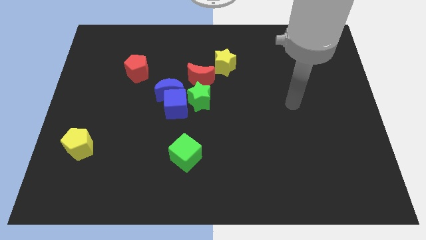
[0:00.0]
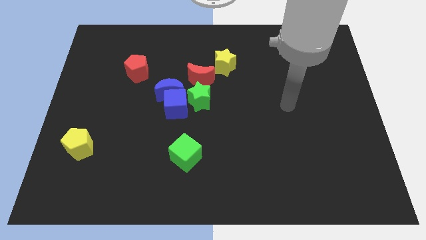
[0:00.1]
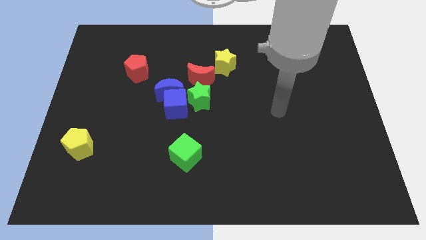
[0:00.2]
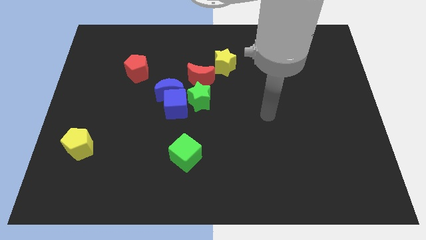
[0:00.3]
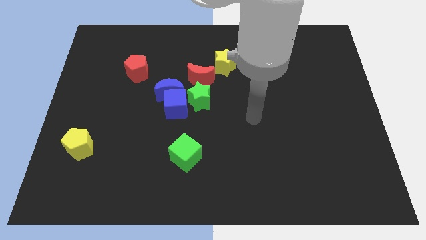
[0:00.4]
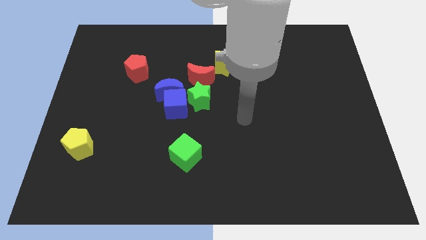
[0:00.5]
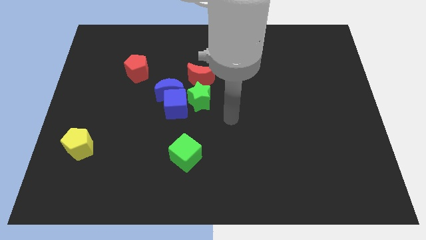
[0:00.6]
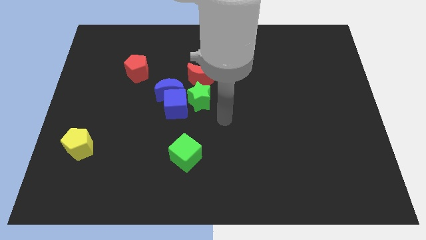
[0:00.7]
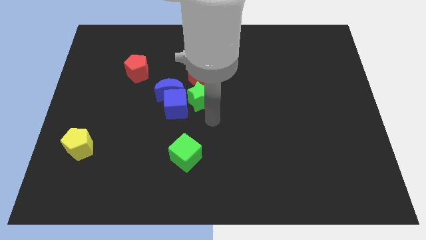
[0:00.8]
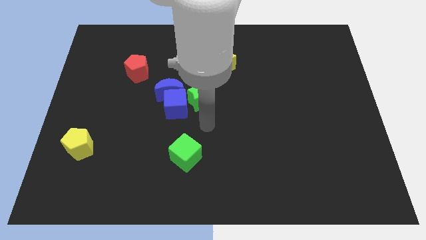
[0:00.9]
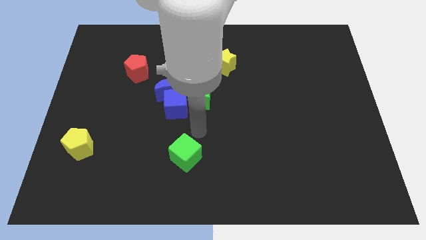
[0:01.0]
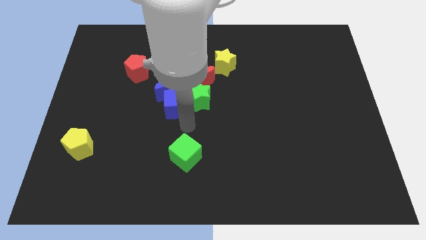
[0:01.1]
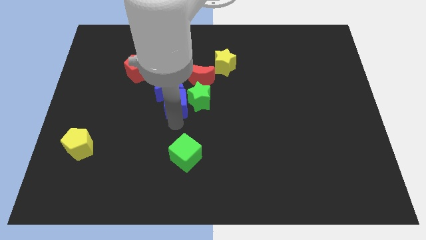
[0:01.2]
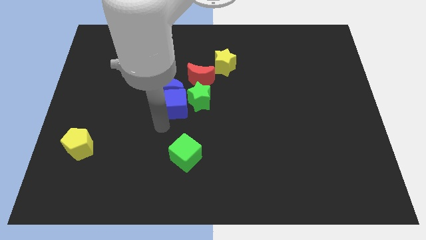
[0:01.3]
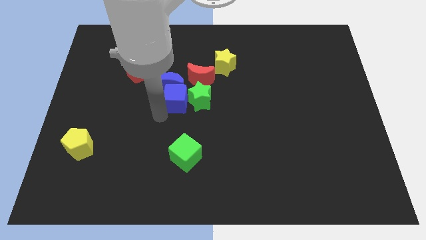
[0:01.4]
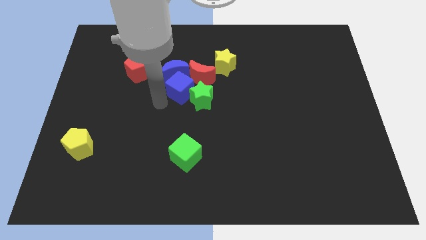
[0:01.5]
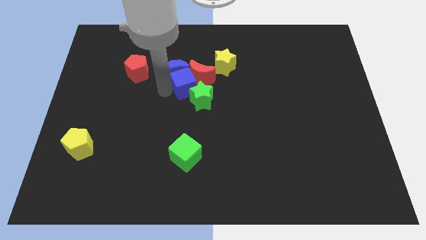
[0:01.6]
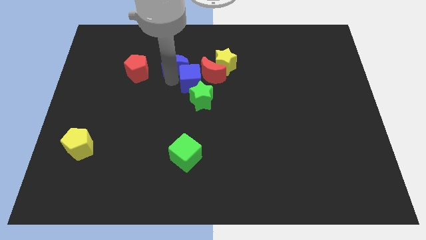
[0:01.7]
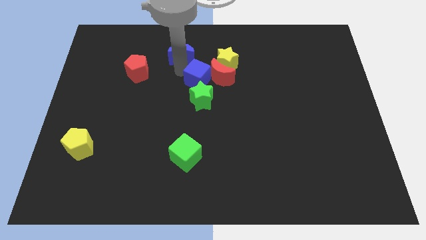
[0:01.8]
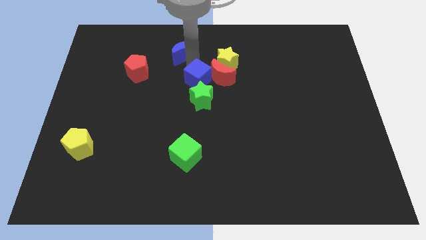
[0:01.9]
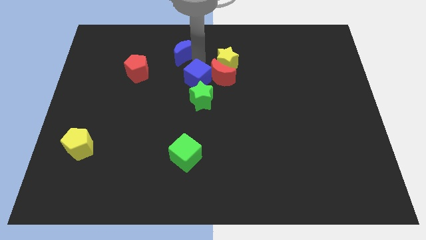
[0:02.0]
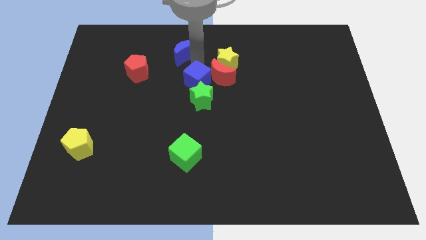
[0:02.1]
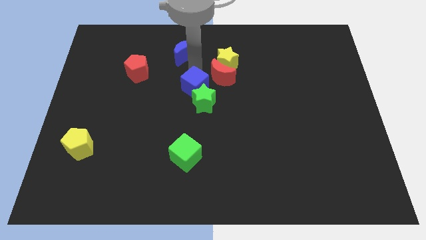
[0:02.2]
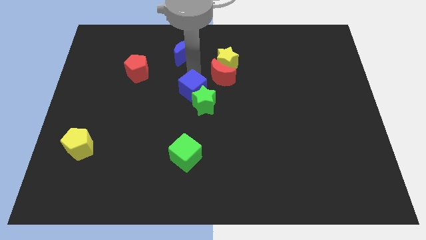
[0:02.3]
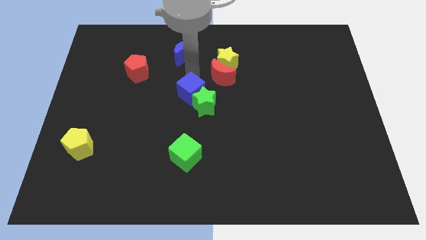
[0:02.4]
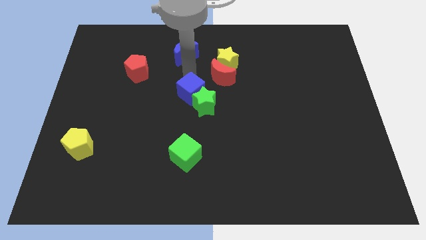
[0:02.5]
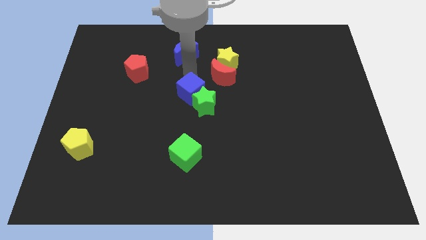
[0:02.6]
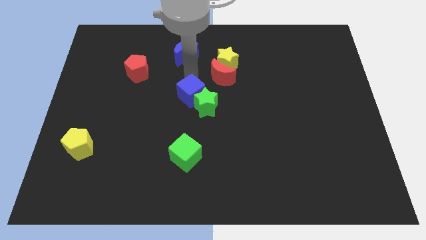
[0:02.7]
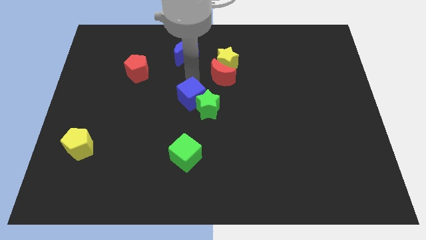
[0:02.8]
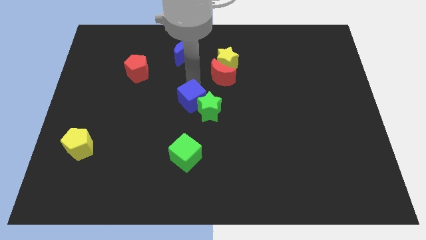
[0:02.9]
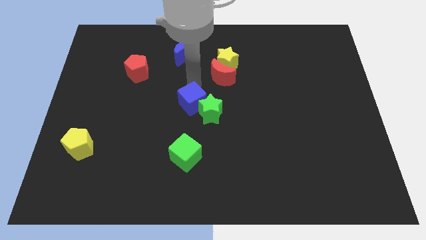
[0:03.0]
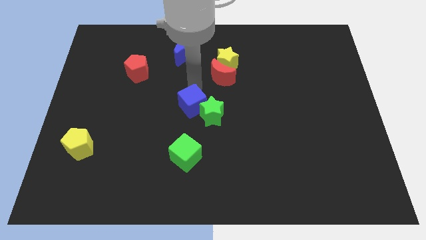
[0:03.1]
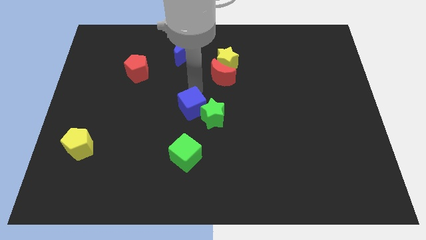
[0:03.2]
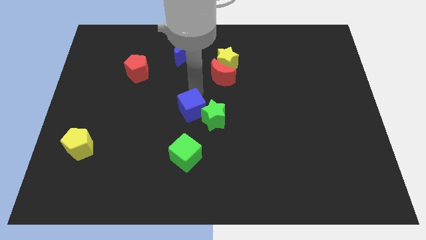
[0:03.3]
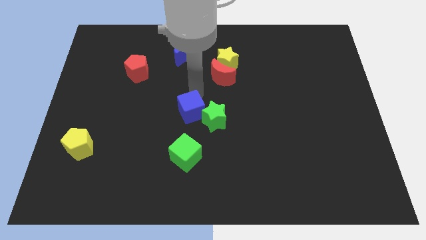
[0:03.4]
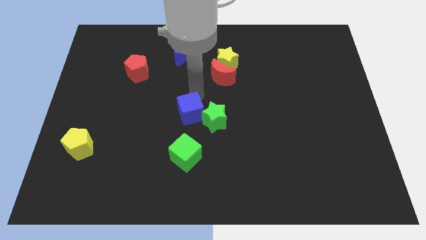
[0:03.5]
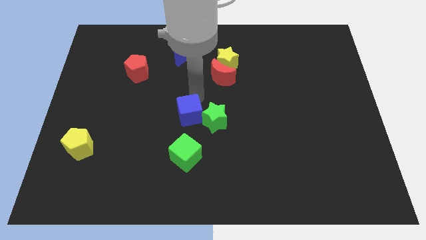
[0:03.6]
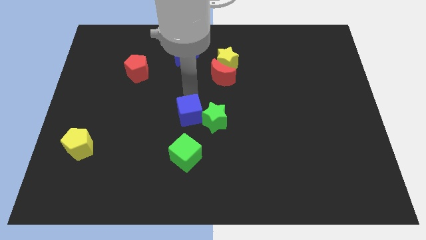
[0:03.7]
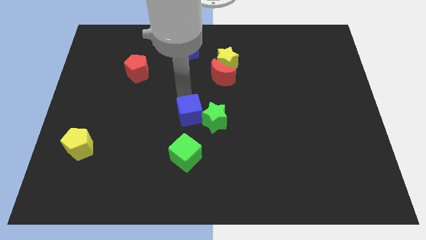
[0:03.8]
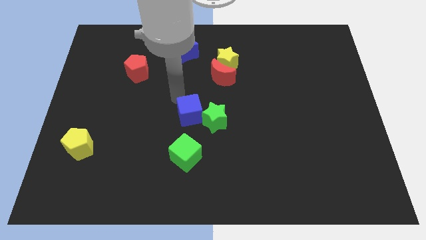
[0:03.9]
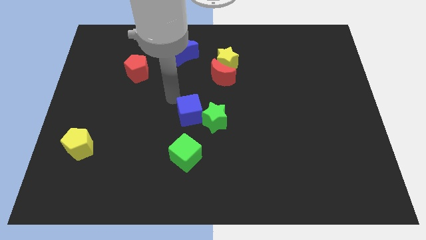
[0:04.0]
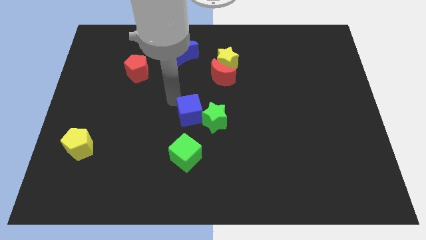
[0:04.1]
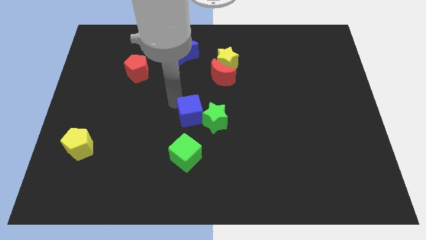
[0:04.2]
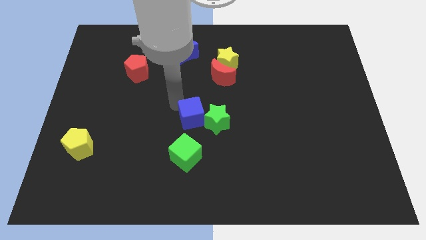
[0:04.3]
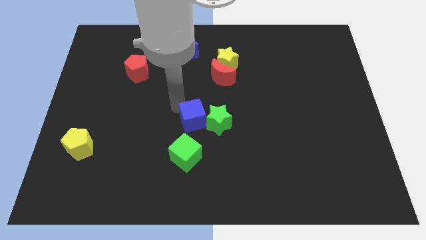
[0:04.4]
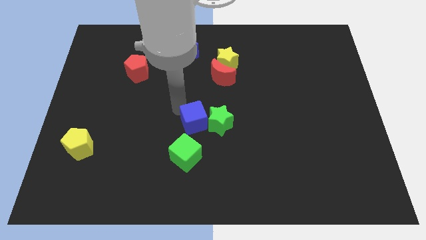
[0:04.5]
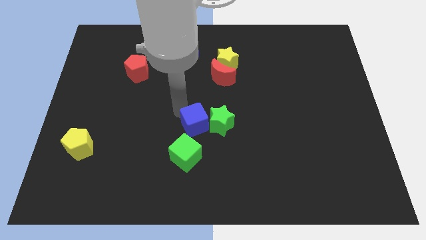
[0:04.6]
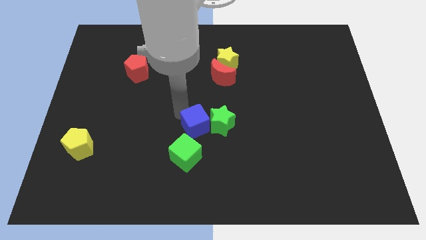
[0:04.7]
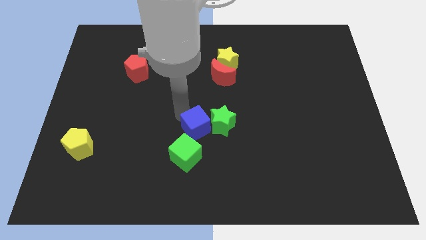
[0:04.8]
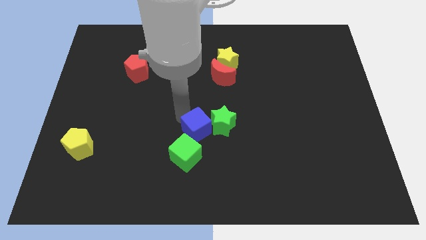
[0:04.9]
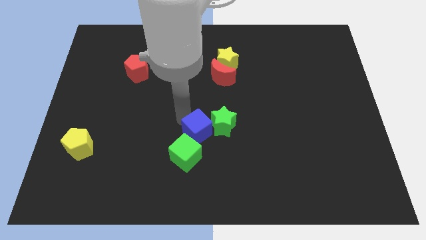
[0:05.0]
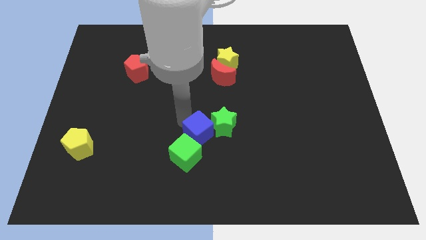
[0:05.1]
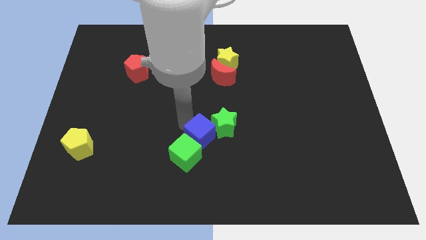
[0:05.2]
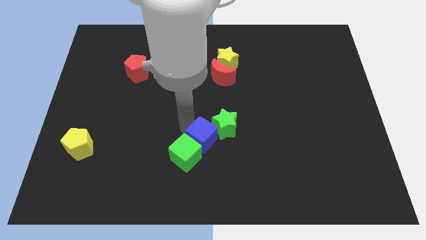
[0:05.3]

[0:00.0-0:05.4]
push the blue cube to the right side of the green cube

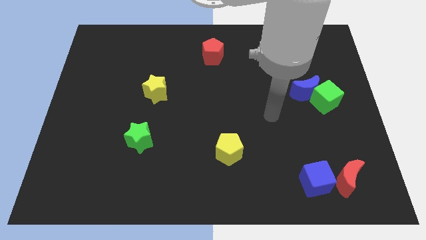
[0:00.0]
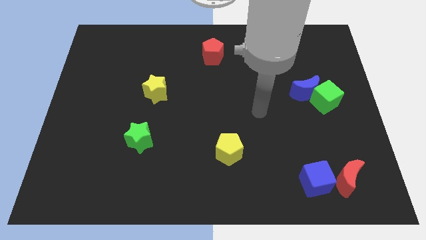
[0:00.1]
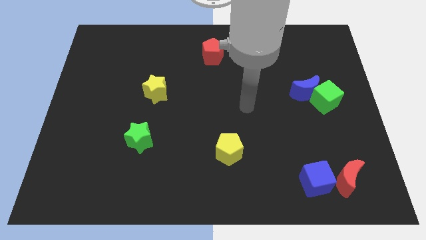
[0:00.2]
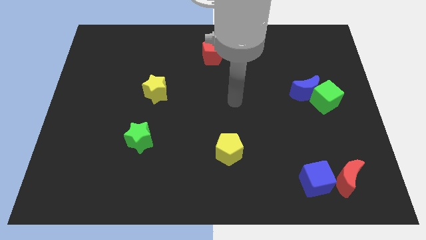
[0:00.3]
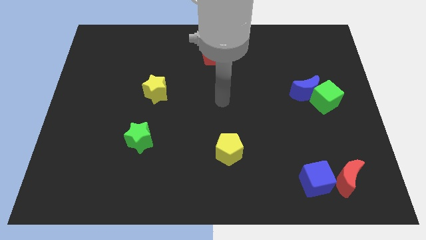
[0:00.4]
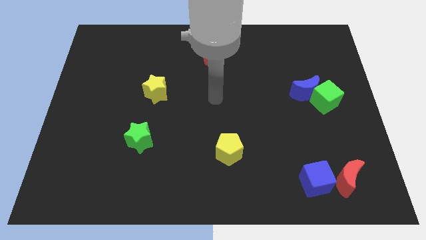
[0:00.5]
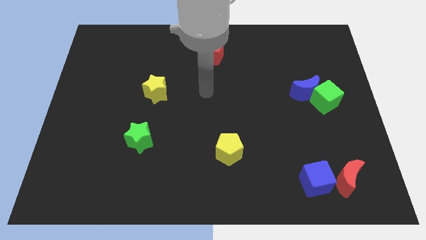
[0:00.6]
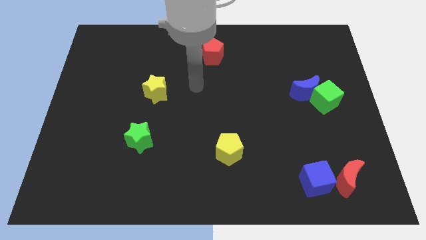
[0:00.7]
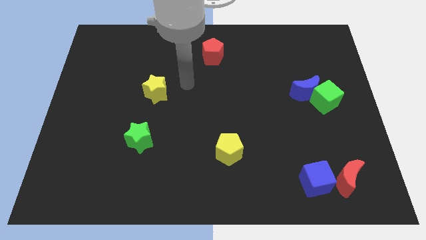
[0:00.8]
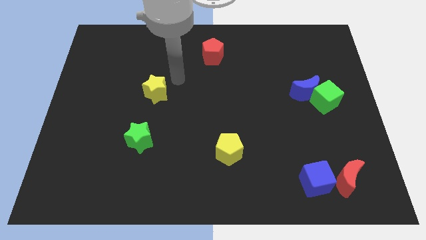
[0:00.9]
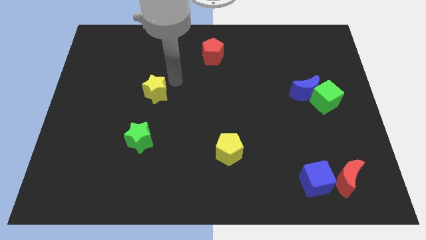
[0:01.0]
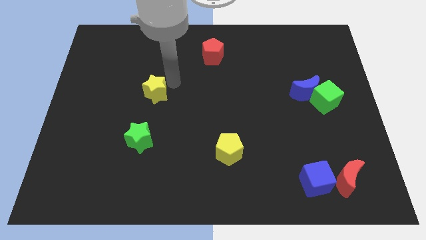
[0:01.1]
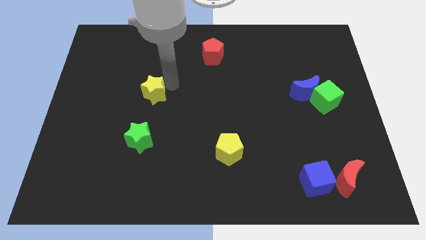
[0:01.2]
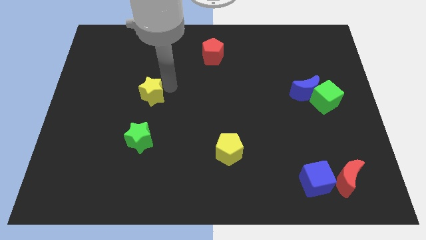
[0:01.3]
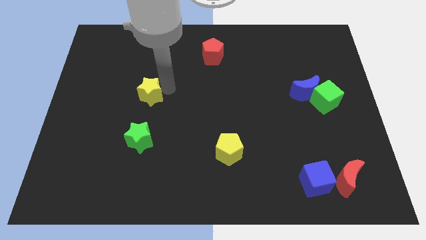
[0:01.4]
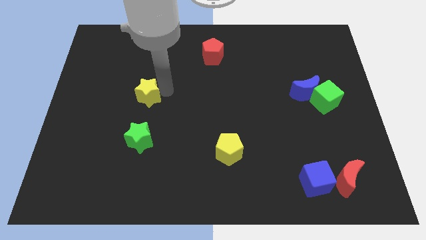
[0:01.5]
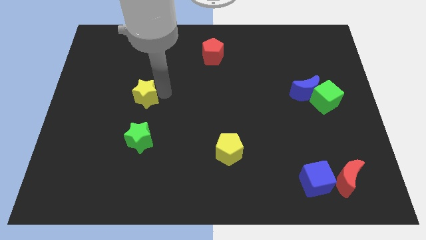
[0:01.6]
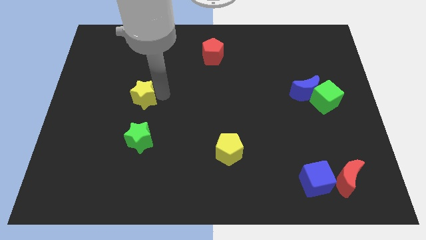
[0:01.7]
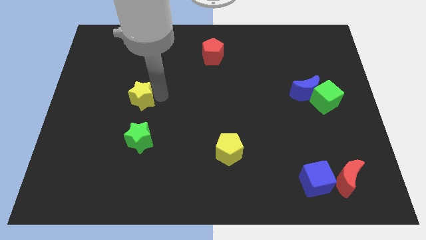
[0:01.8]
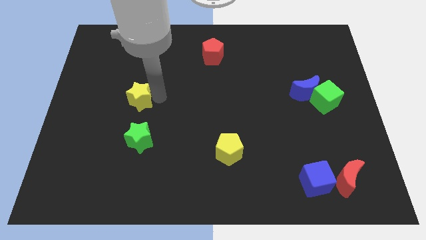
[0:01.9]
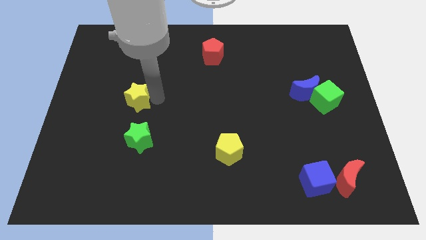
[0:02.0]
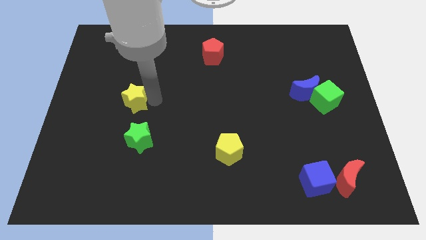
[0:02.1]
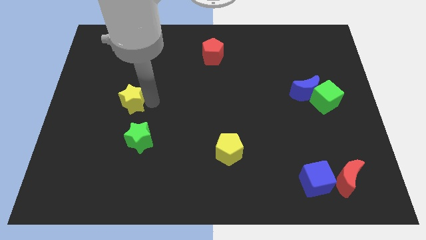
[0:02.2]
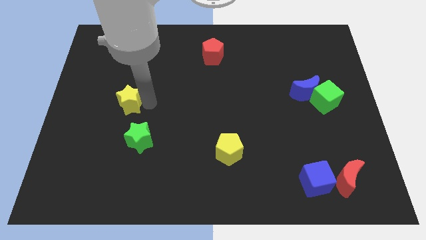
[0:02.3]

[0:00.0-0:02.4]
push the yellow star to the top left side of the green star

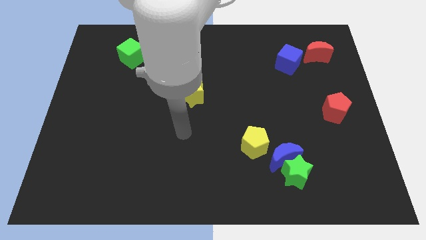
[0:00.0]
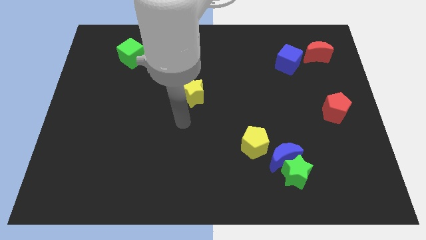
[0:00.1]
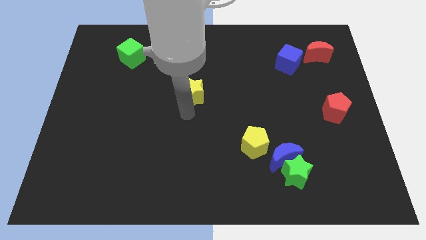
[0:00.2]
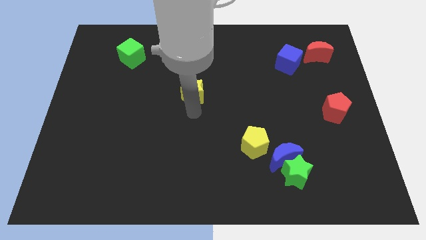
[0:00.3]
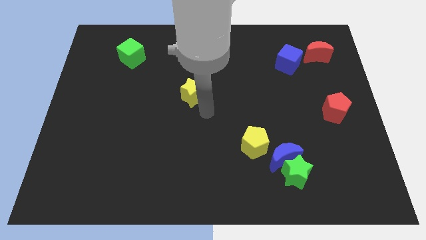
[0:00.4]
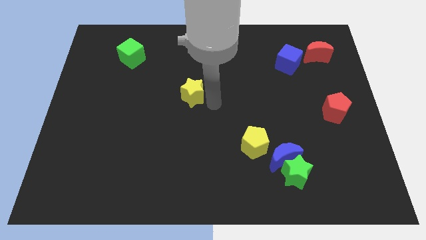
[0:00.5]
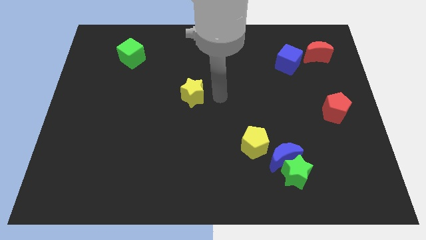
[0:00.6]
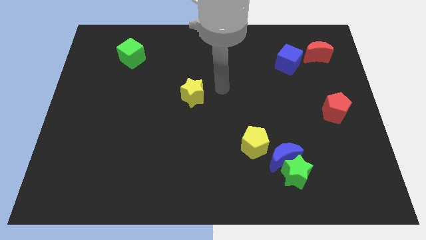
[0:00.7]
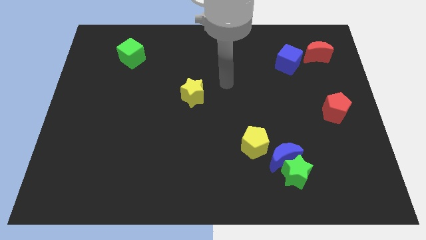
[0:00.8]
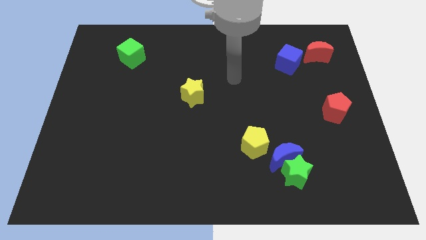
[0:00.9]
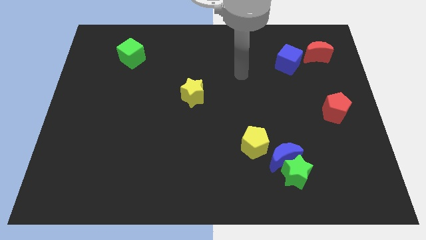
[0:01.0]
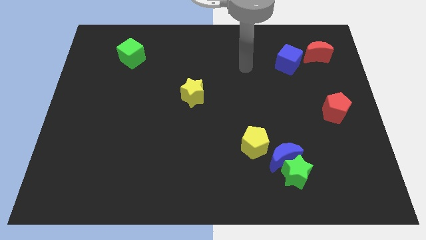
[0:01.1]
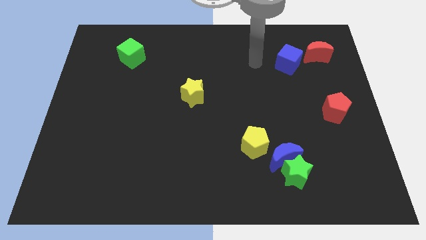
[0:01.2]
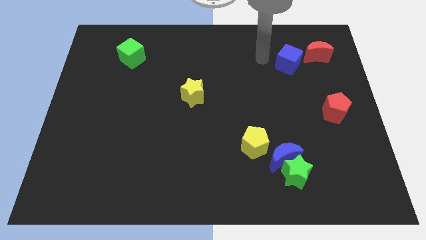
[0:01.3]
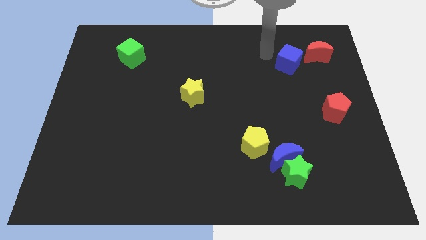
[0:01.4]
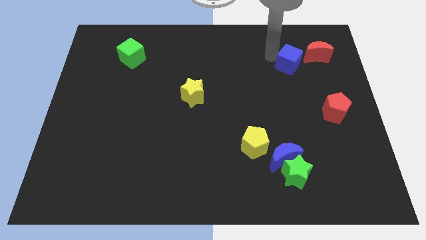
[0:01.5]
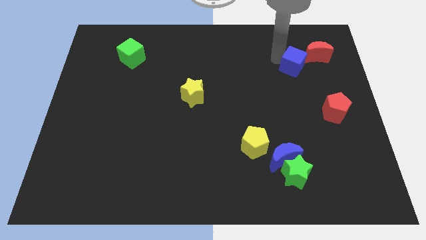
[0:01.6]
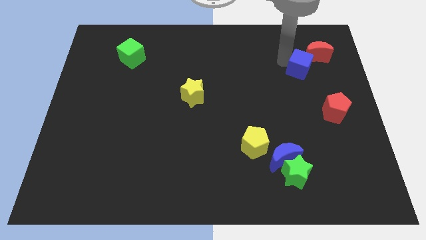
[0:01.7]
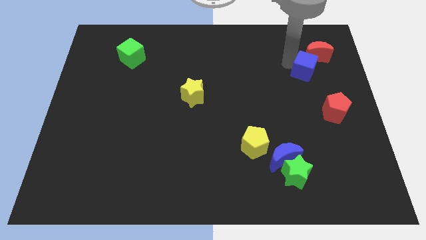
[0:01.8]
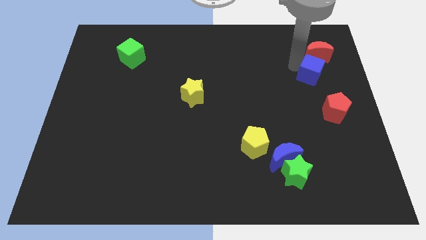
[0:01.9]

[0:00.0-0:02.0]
push the blue cube to the top of the red pentagon
